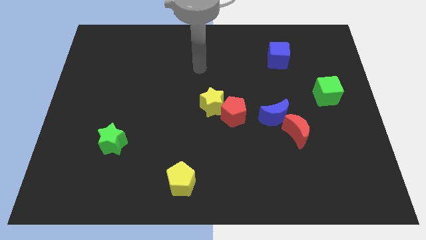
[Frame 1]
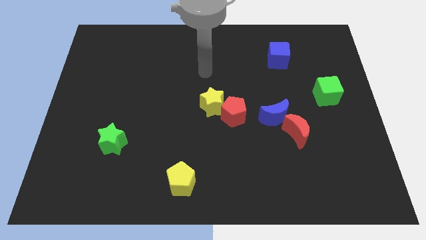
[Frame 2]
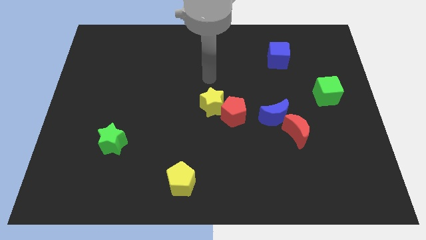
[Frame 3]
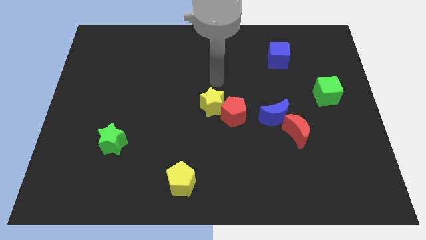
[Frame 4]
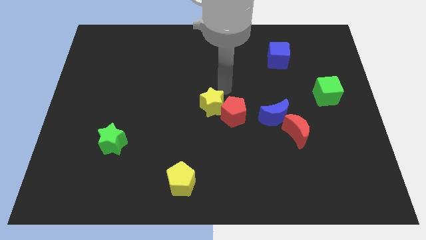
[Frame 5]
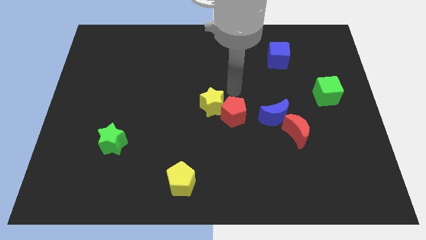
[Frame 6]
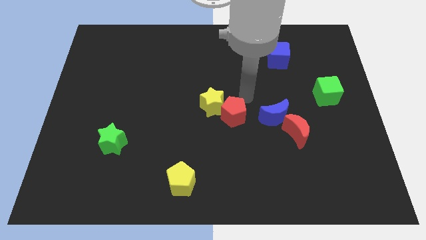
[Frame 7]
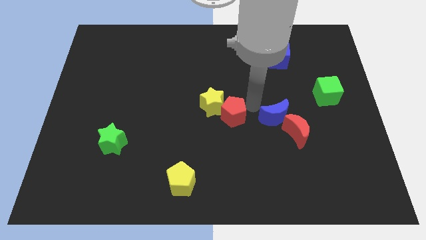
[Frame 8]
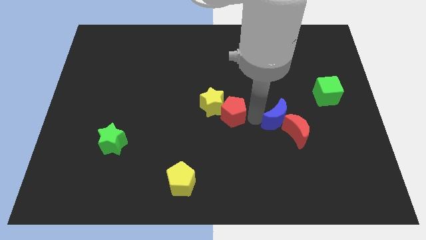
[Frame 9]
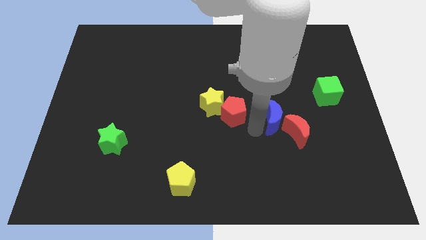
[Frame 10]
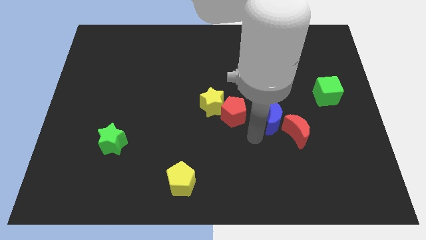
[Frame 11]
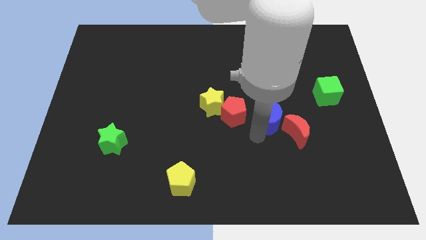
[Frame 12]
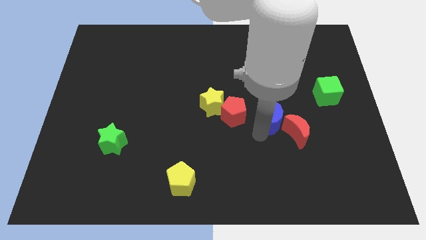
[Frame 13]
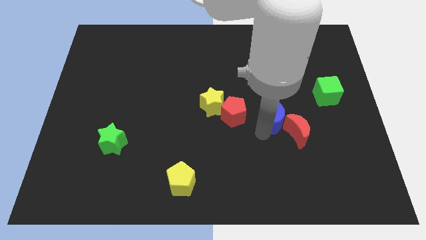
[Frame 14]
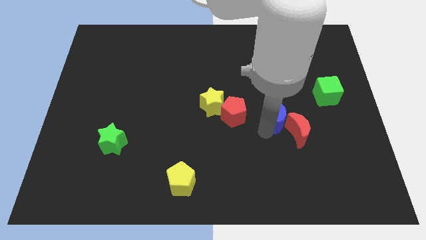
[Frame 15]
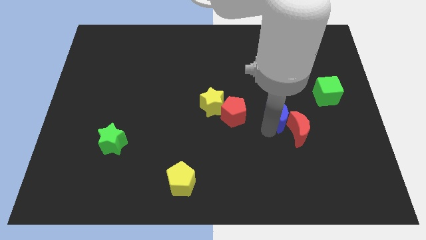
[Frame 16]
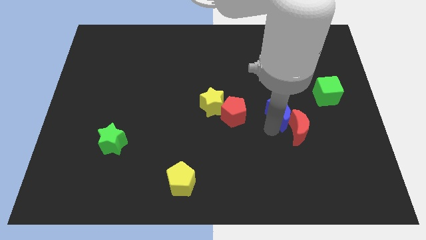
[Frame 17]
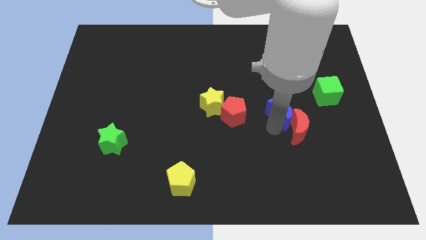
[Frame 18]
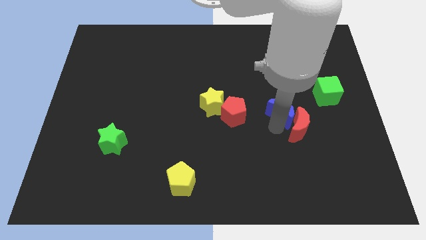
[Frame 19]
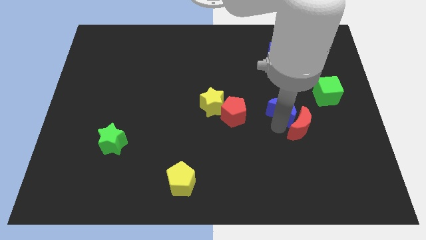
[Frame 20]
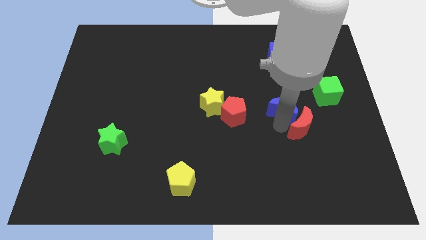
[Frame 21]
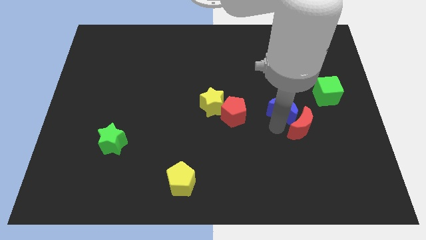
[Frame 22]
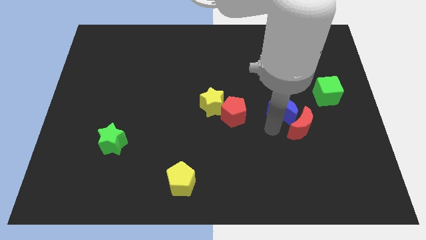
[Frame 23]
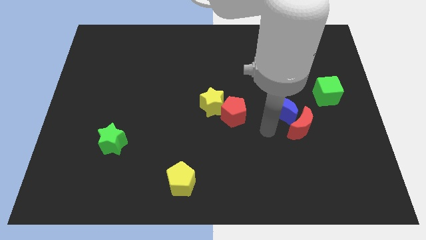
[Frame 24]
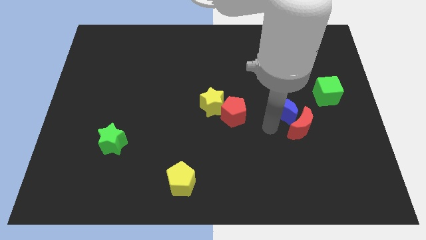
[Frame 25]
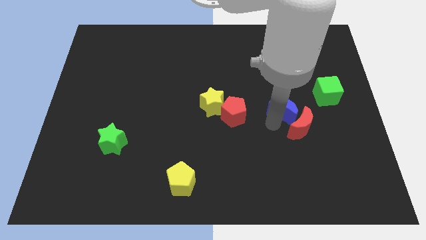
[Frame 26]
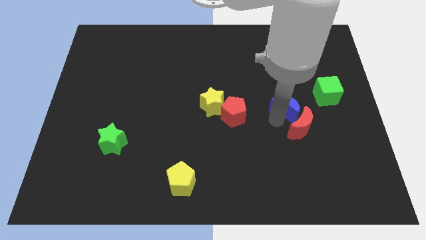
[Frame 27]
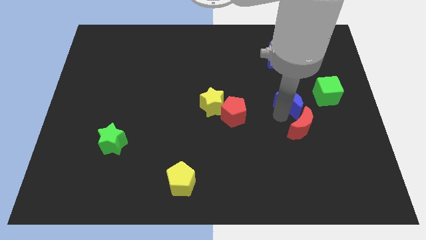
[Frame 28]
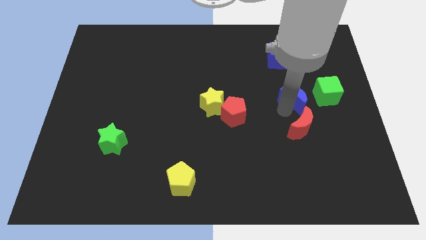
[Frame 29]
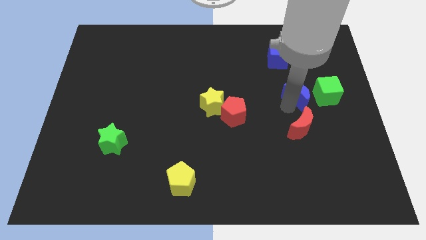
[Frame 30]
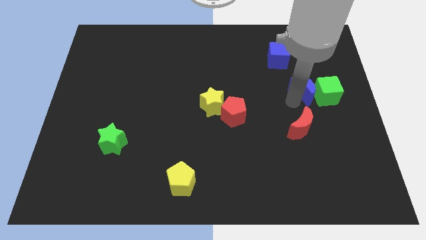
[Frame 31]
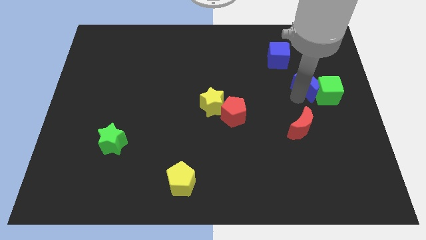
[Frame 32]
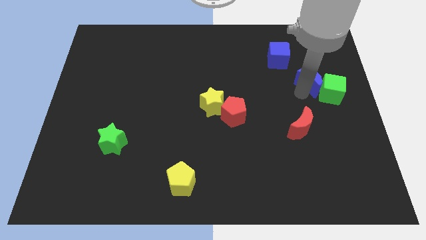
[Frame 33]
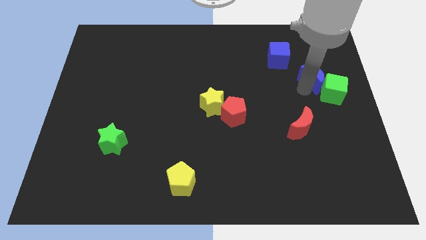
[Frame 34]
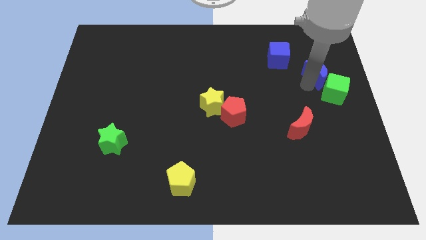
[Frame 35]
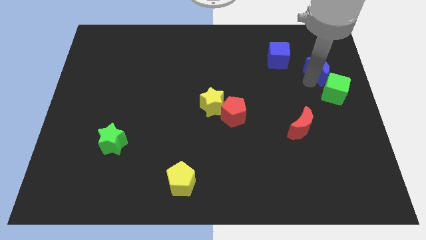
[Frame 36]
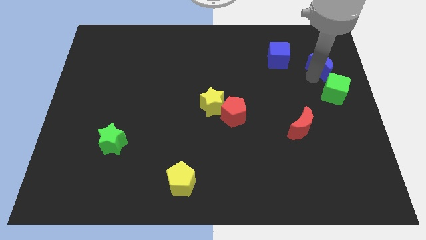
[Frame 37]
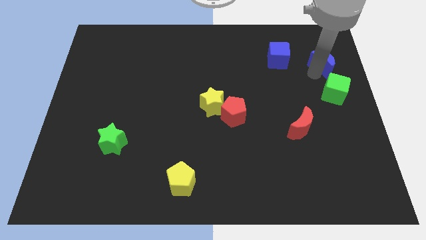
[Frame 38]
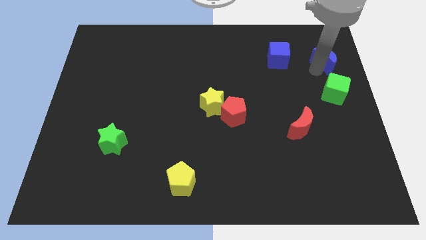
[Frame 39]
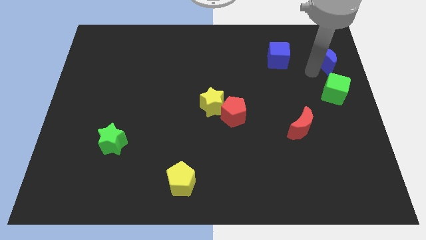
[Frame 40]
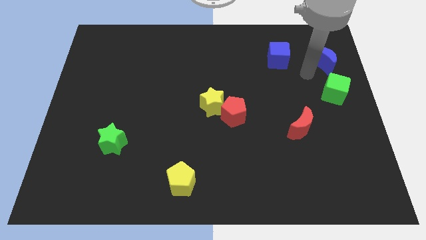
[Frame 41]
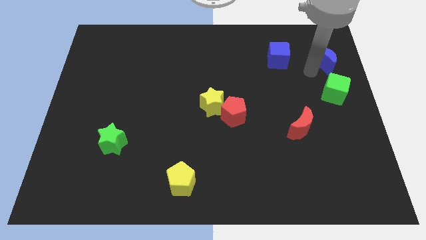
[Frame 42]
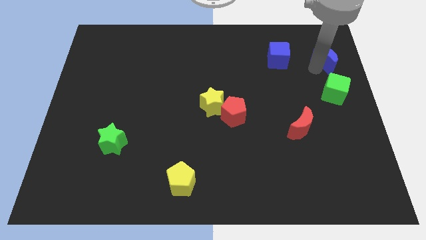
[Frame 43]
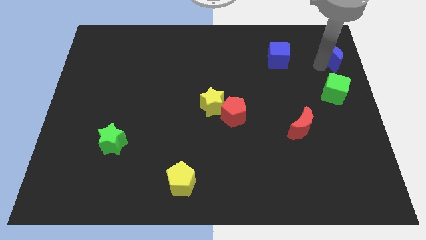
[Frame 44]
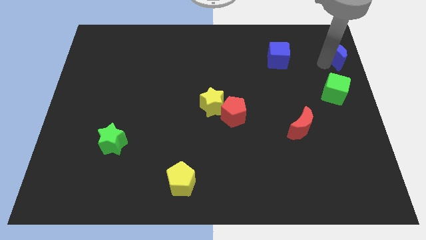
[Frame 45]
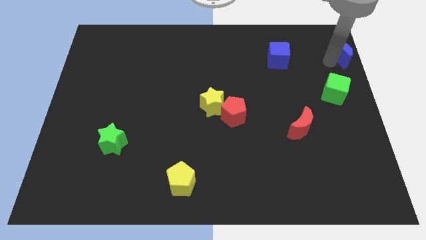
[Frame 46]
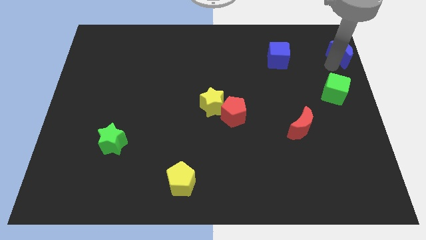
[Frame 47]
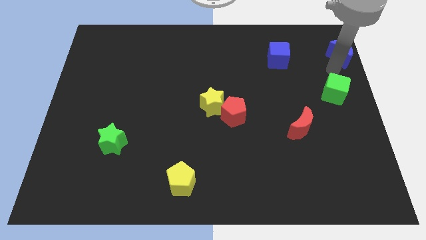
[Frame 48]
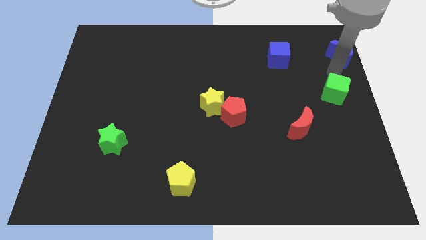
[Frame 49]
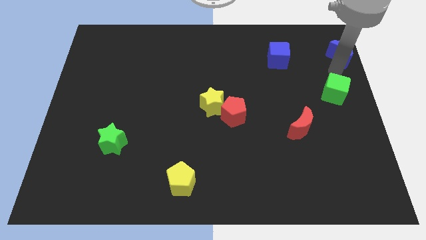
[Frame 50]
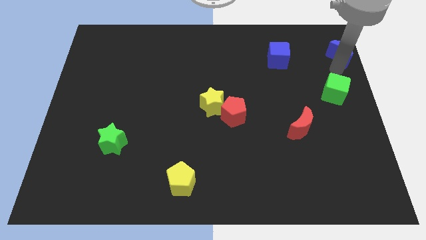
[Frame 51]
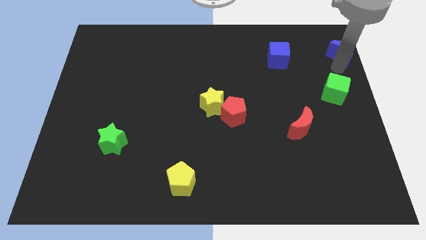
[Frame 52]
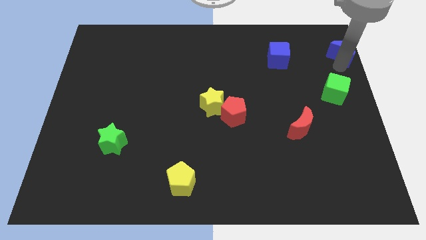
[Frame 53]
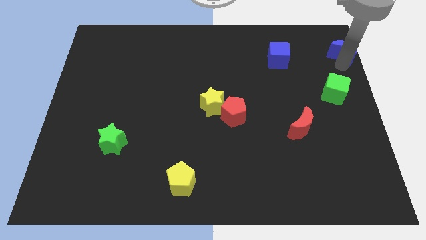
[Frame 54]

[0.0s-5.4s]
move the blue moon to the top right of the board
